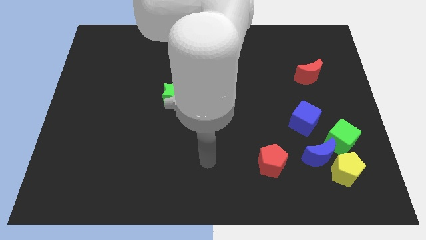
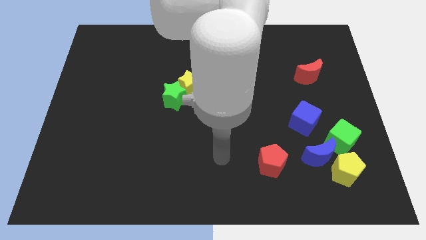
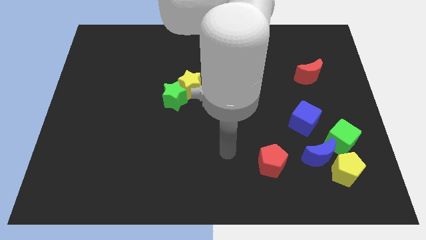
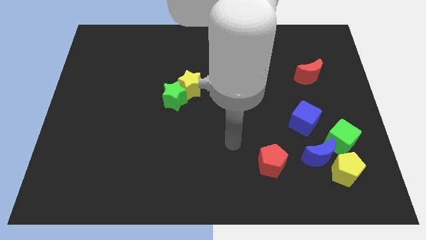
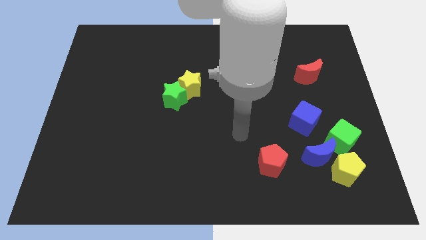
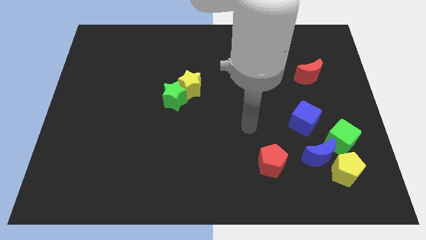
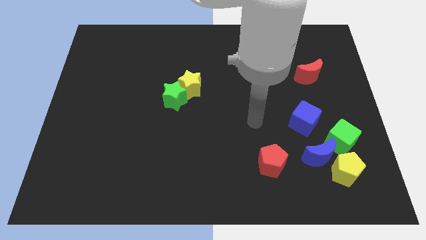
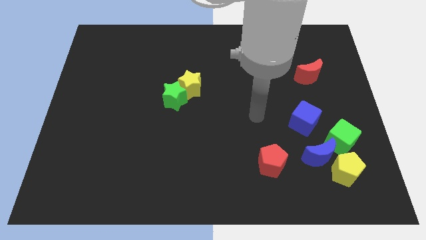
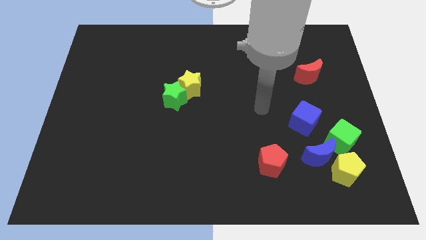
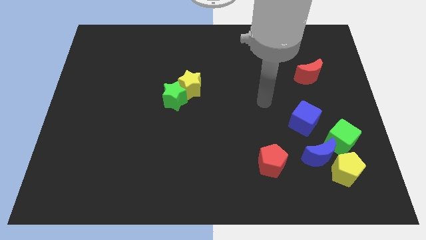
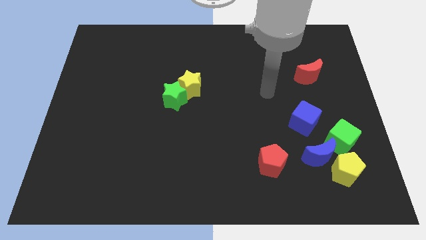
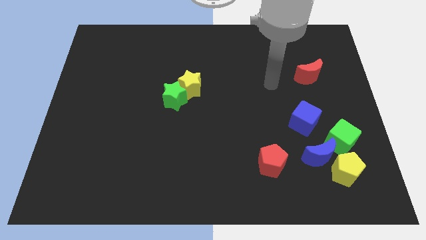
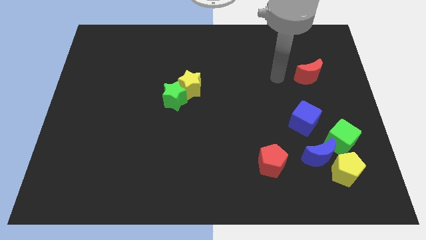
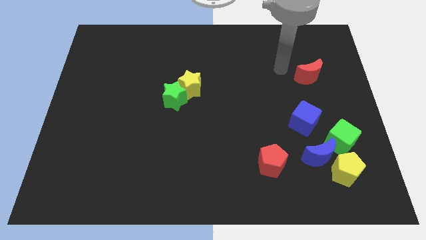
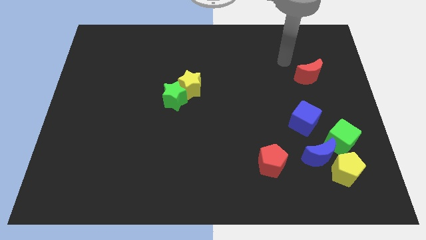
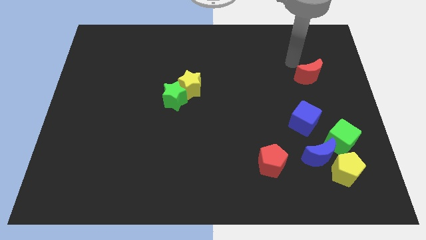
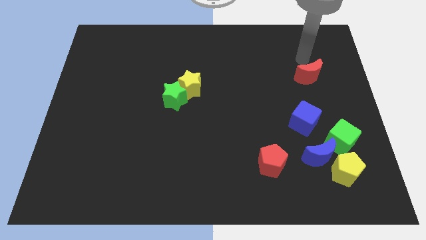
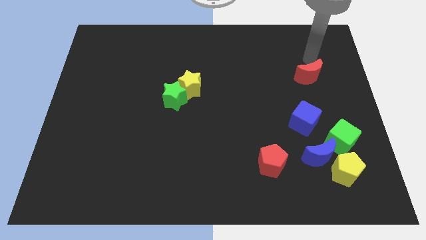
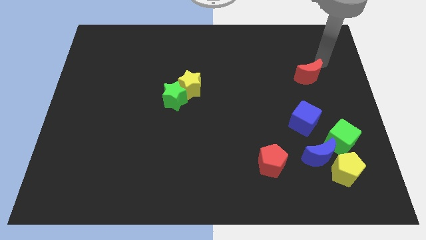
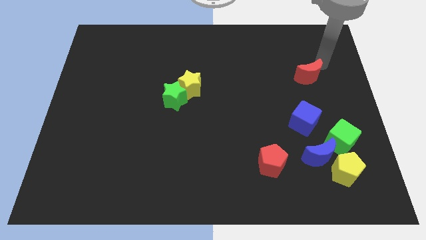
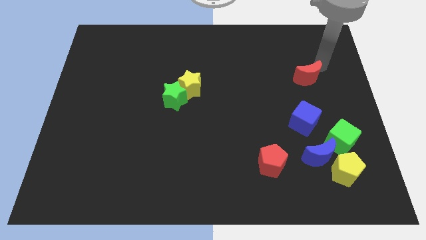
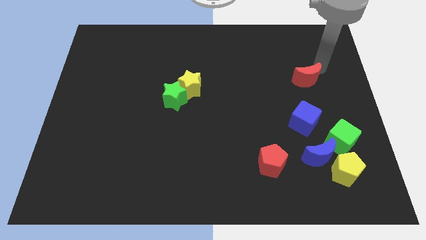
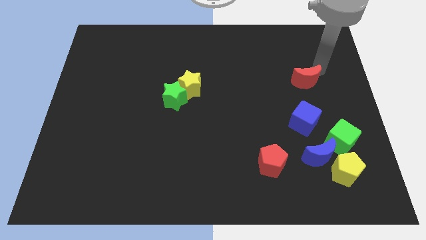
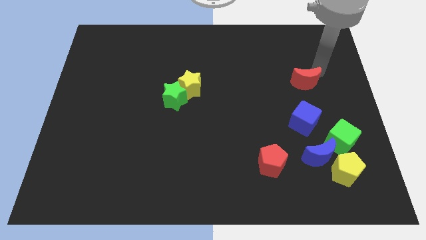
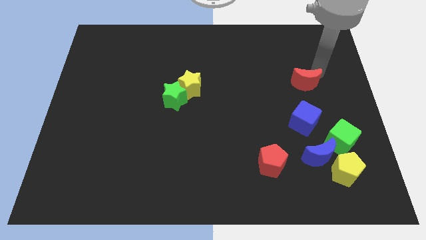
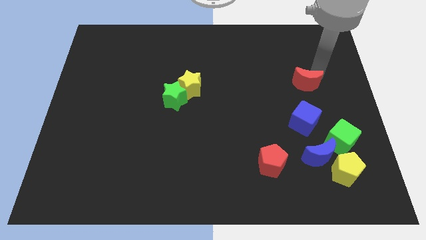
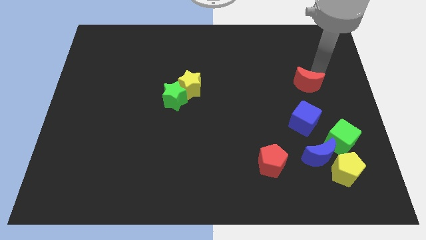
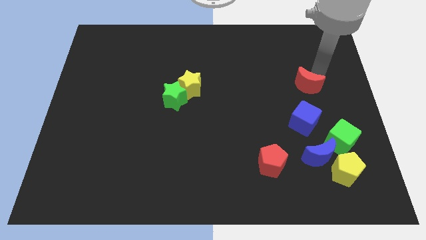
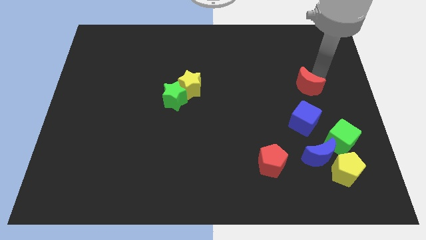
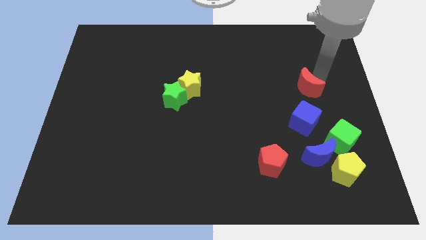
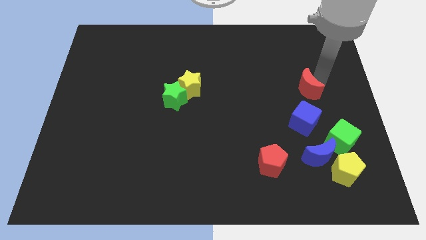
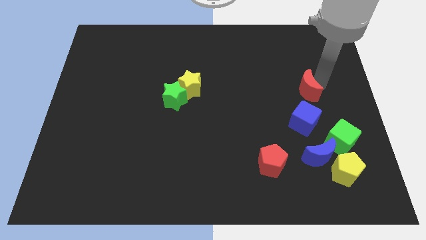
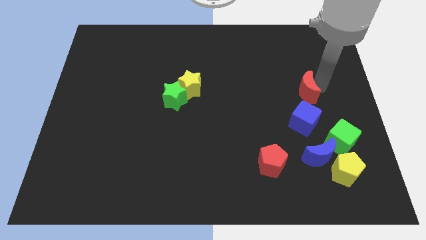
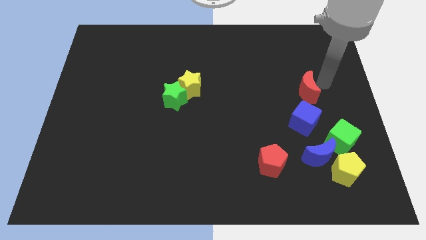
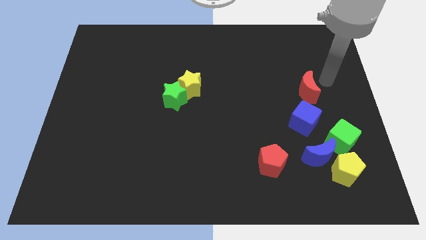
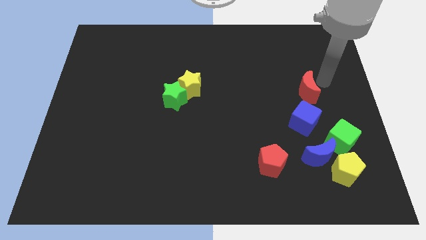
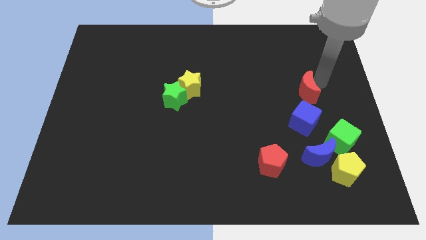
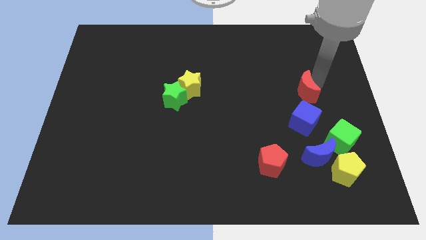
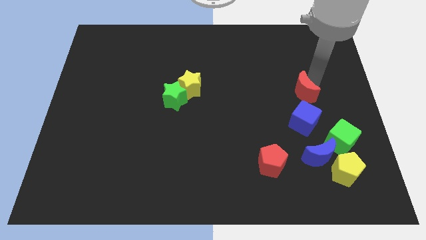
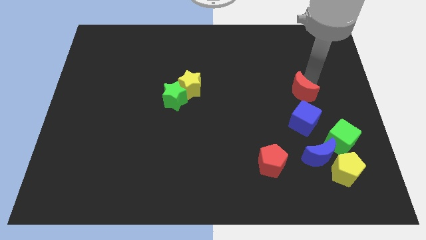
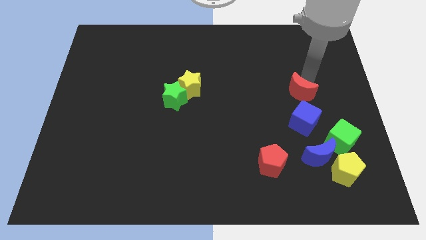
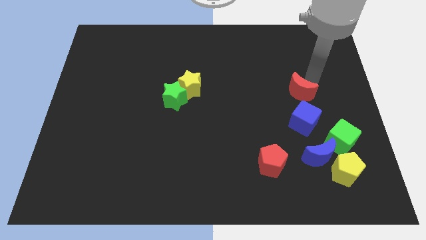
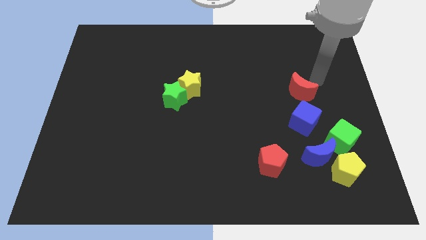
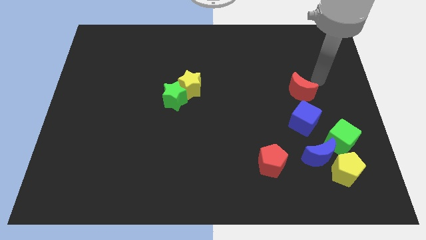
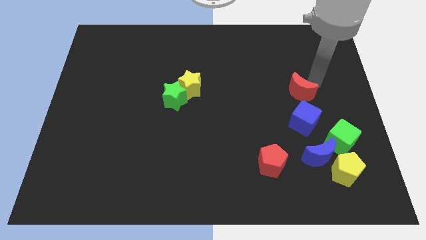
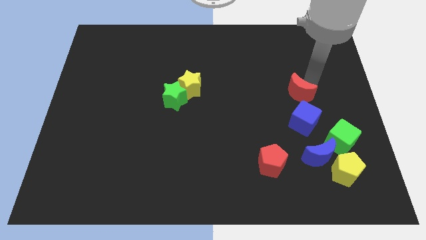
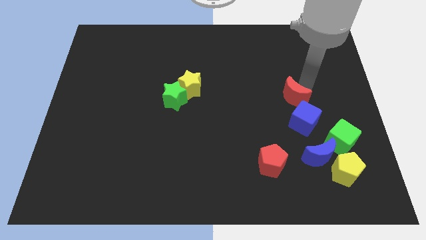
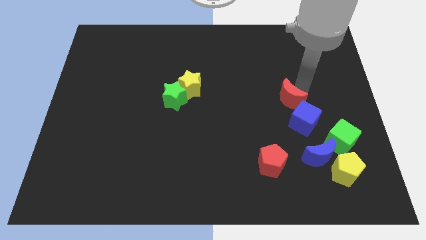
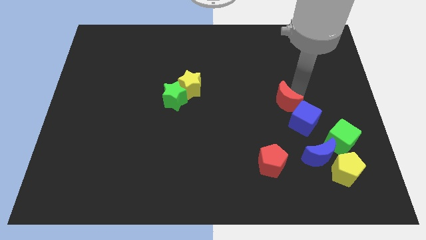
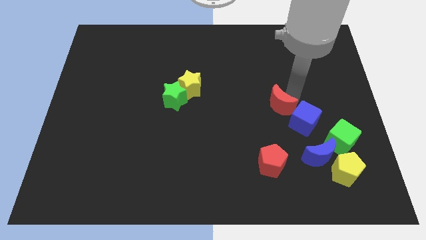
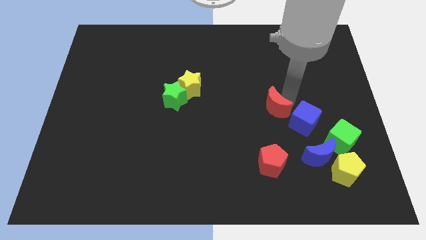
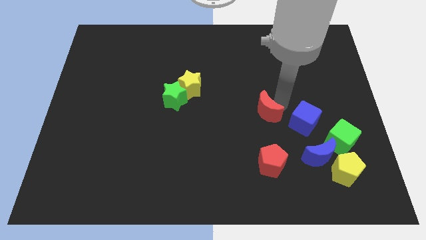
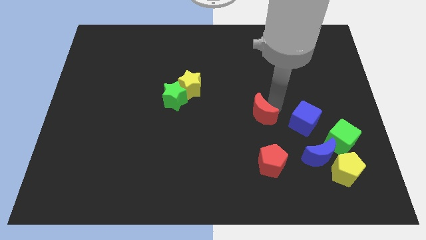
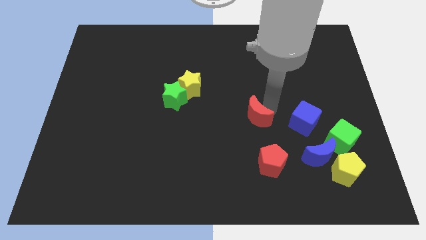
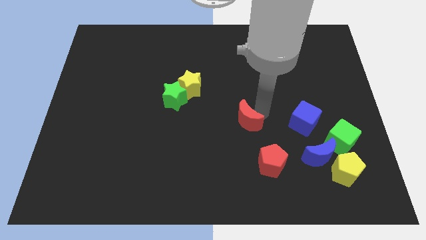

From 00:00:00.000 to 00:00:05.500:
move the red moon diagonally downwards and to the left

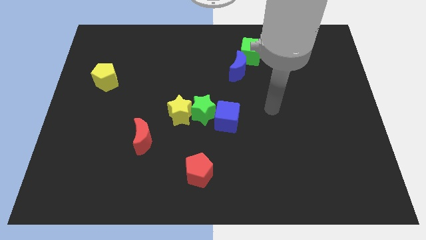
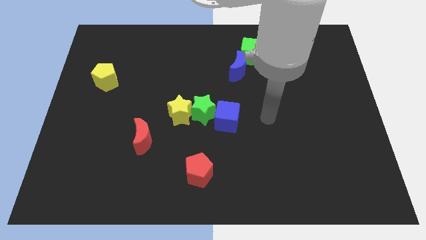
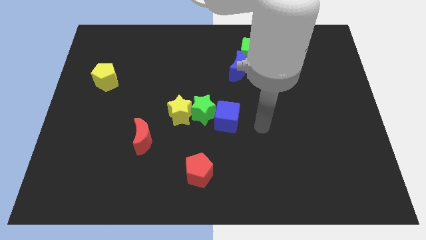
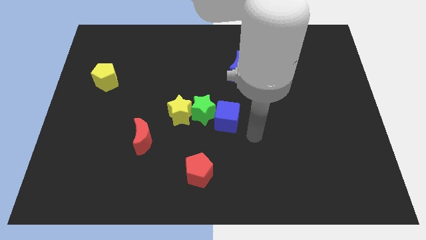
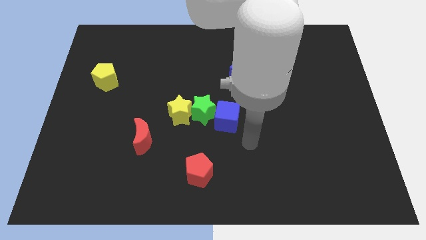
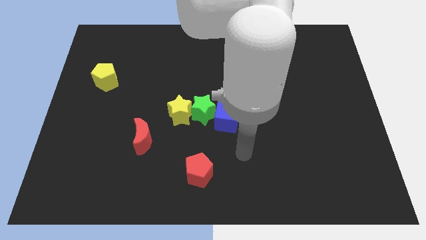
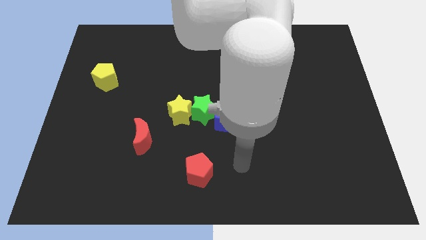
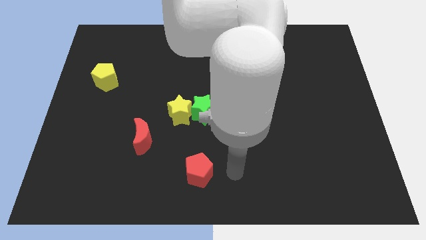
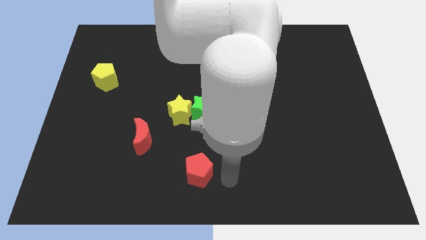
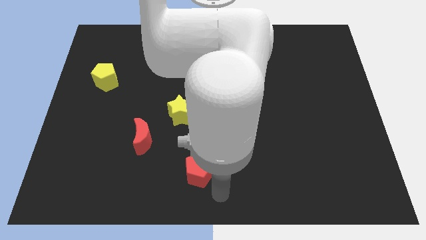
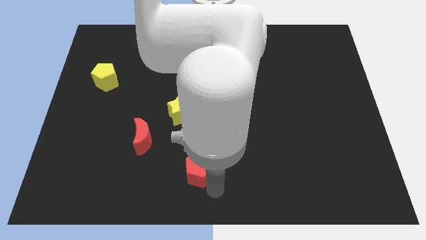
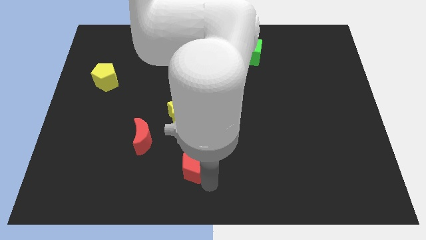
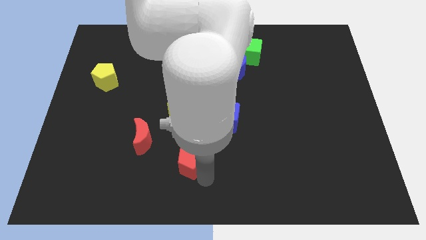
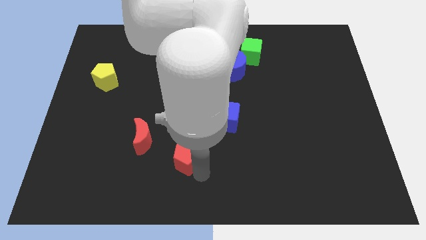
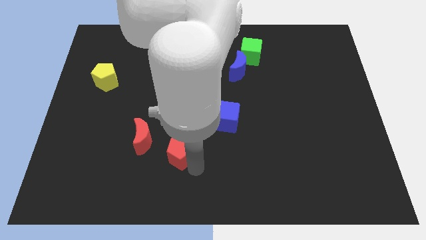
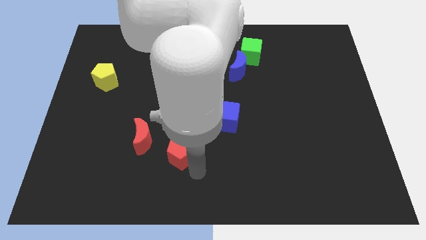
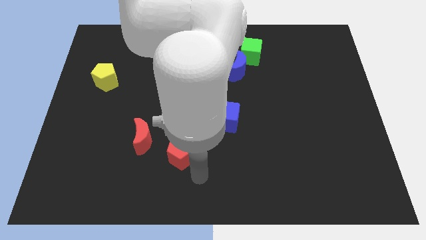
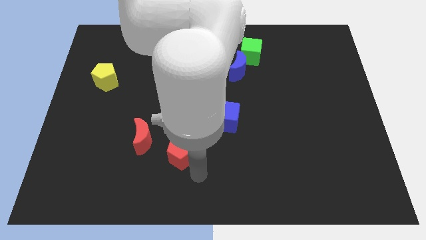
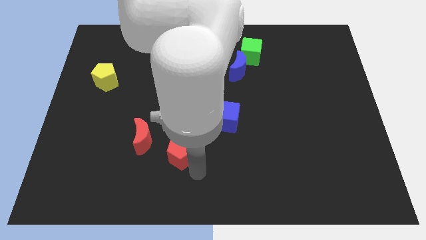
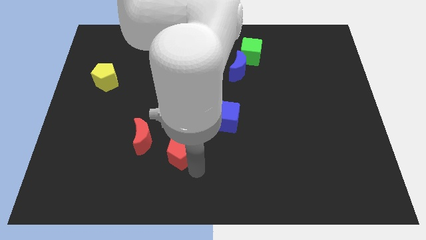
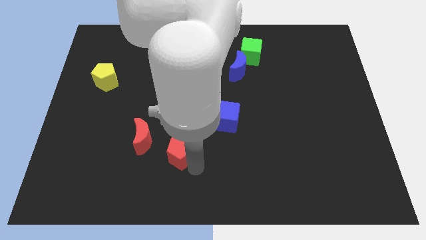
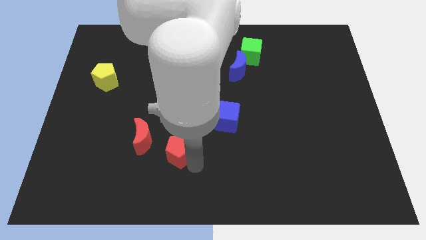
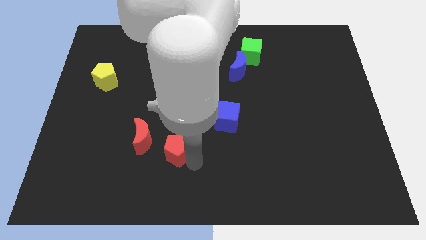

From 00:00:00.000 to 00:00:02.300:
push the red pentagon upwards and to the left a little bit
